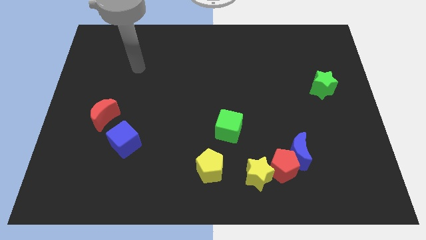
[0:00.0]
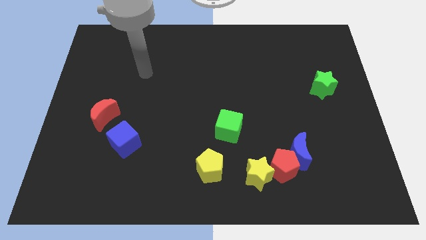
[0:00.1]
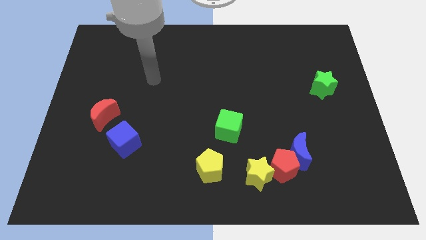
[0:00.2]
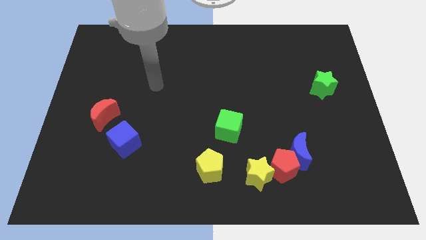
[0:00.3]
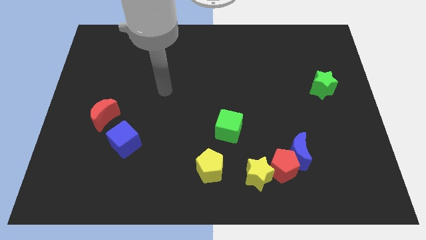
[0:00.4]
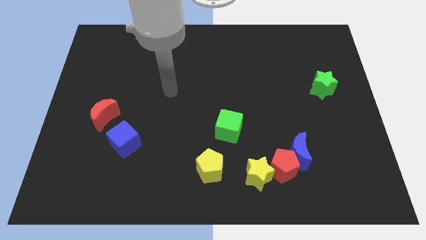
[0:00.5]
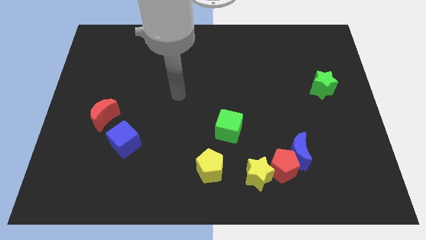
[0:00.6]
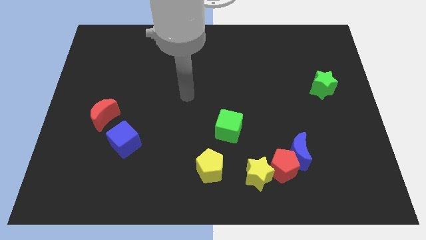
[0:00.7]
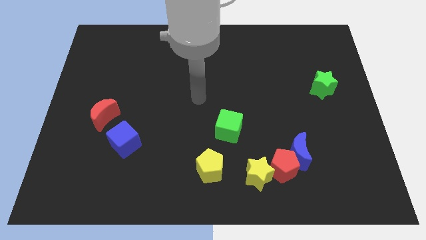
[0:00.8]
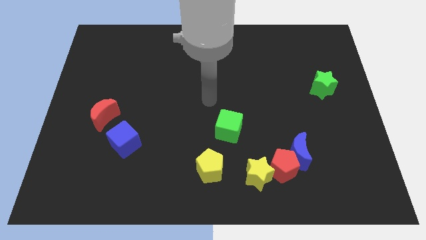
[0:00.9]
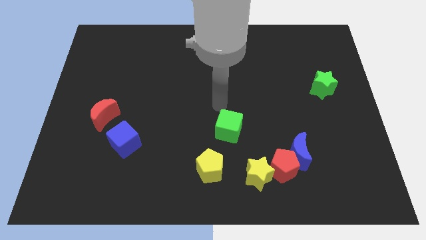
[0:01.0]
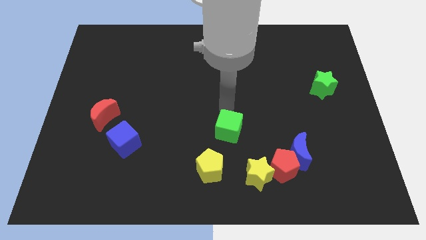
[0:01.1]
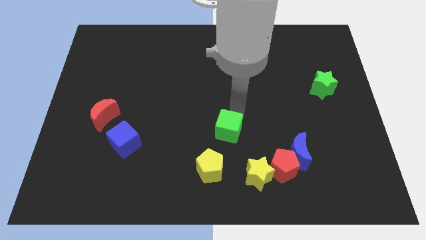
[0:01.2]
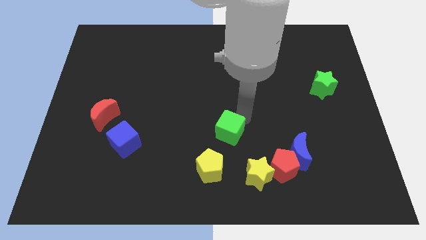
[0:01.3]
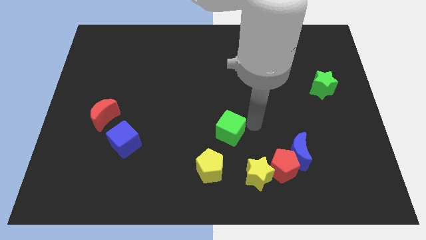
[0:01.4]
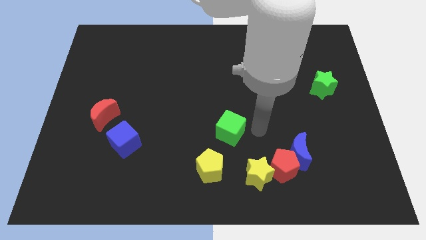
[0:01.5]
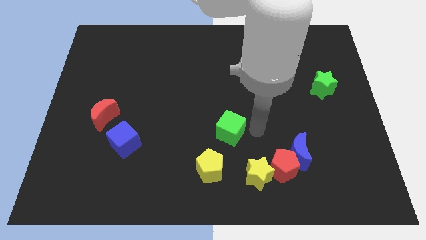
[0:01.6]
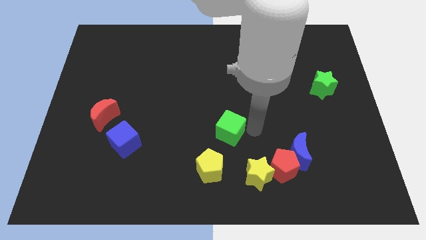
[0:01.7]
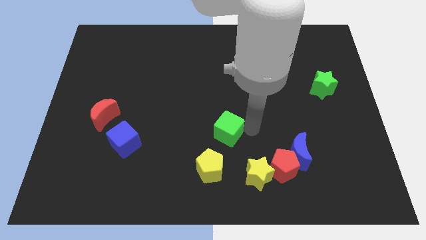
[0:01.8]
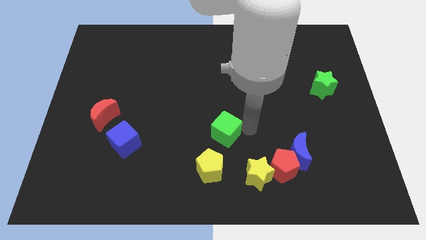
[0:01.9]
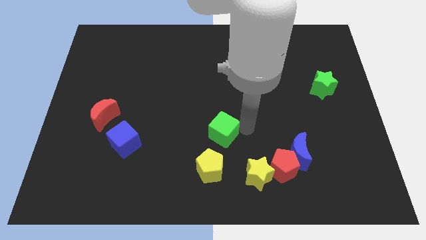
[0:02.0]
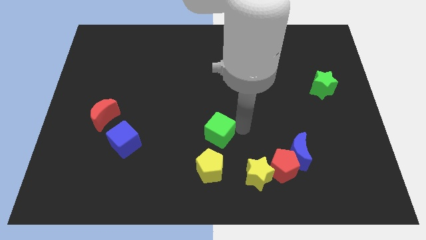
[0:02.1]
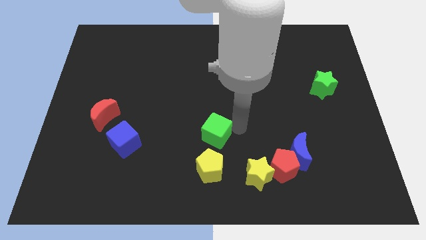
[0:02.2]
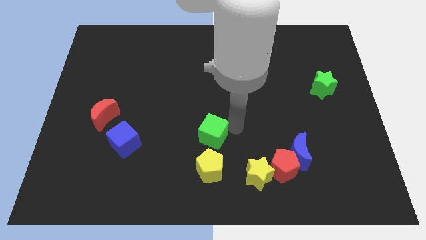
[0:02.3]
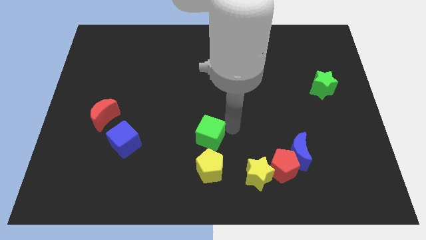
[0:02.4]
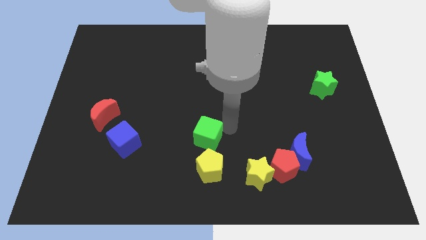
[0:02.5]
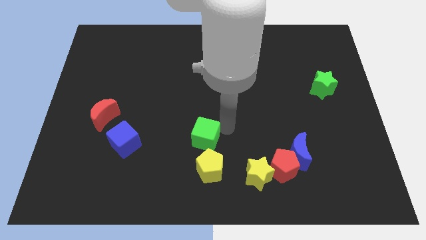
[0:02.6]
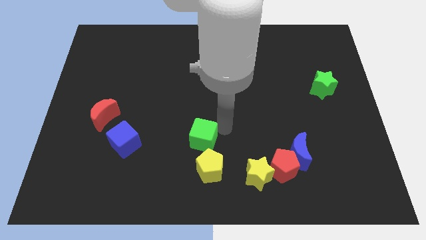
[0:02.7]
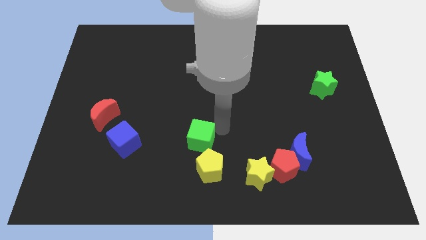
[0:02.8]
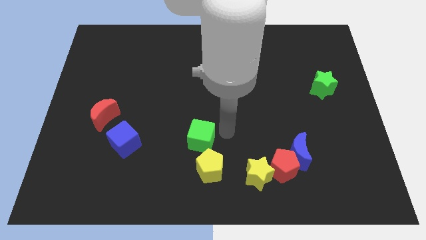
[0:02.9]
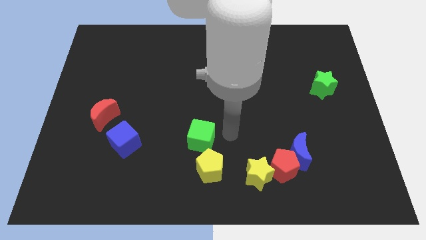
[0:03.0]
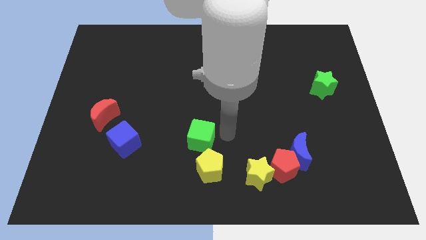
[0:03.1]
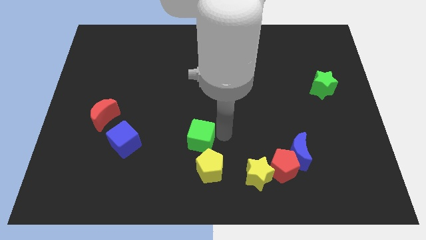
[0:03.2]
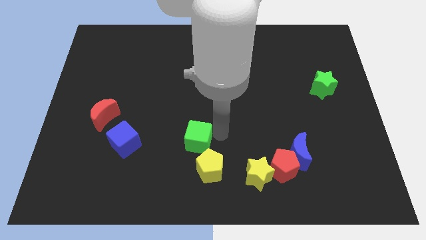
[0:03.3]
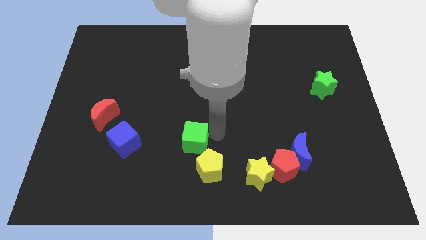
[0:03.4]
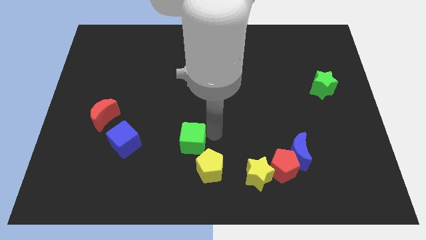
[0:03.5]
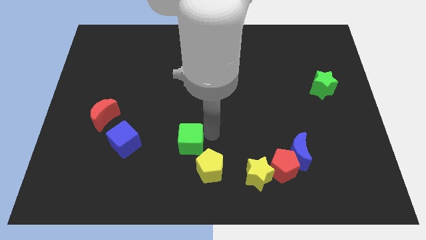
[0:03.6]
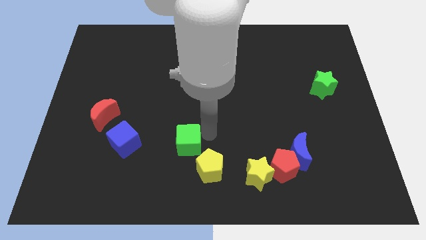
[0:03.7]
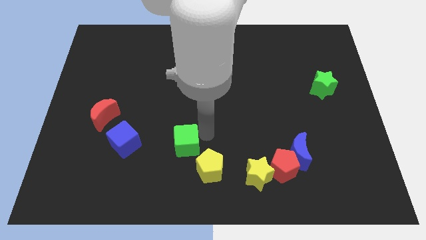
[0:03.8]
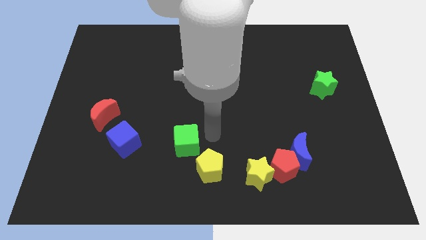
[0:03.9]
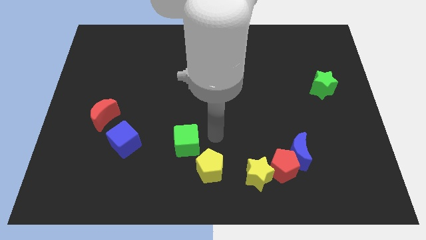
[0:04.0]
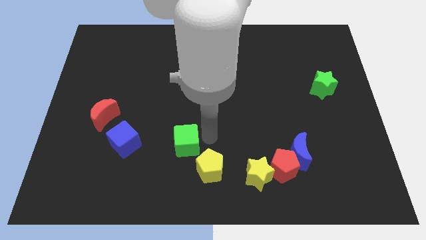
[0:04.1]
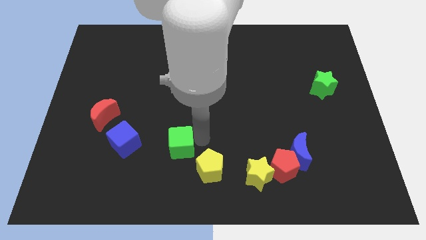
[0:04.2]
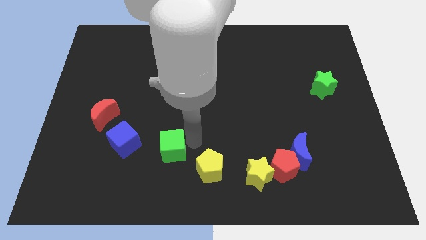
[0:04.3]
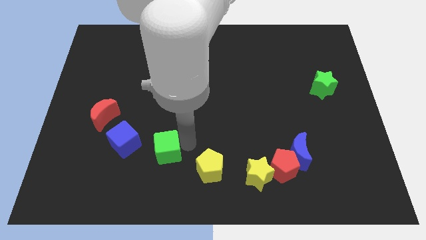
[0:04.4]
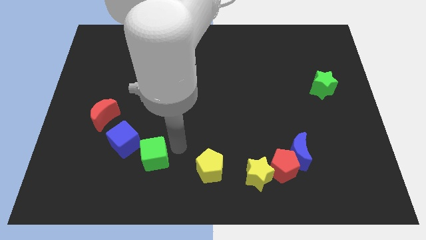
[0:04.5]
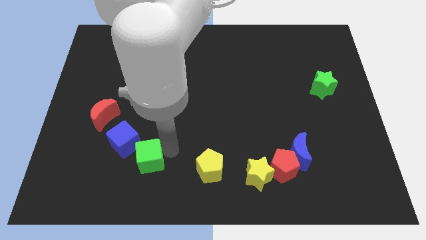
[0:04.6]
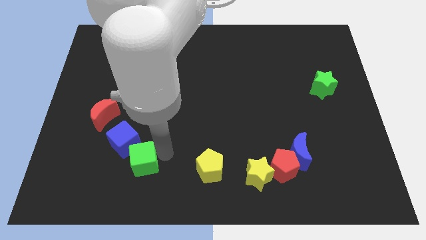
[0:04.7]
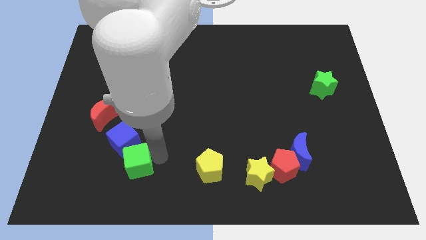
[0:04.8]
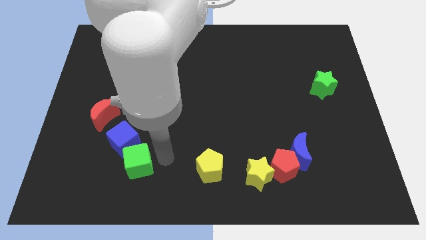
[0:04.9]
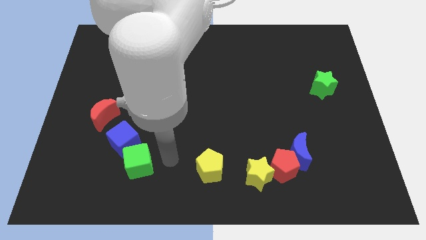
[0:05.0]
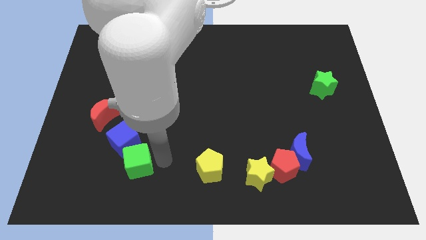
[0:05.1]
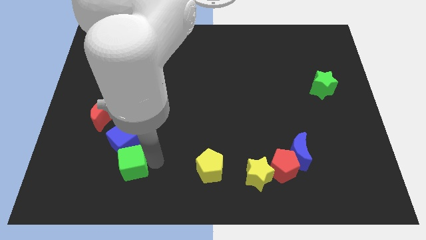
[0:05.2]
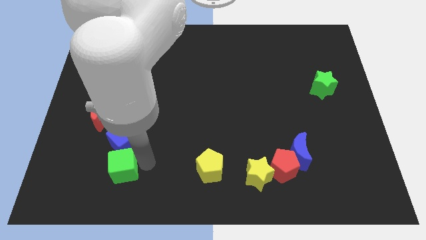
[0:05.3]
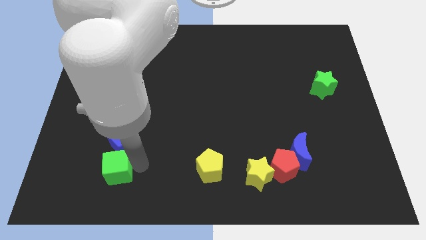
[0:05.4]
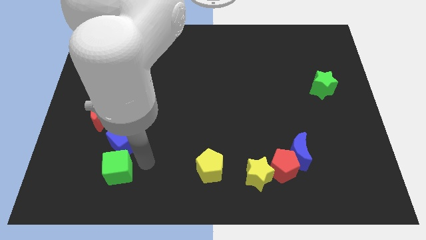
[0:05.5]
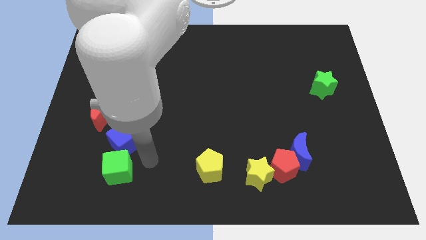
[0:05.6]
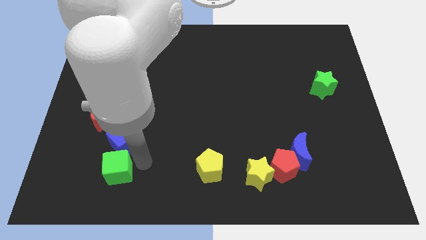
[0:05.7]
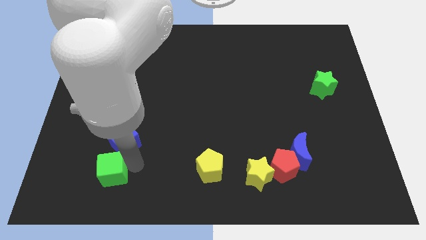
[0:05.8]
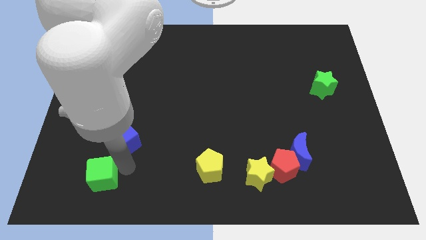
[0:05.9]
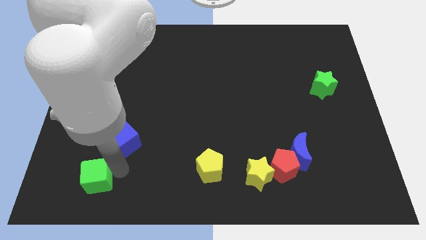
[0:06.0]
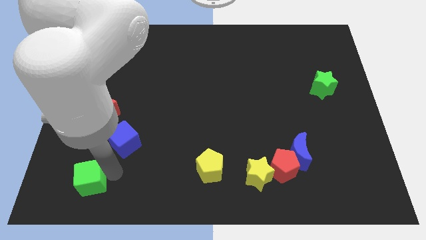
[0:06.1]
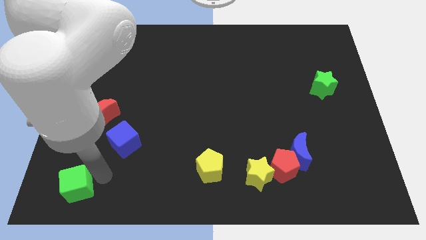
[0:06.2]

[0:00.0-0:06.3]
move the green cube to the bottom left of the board

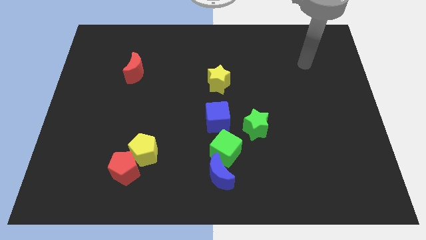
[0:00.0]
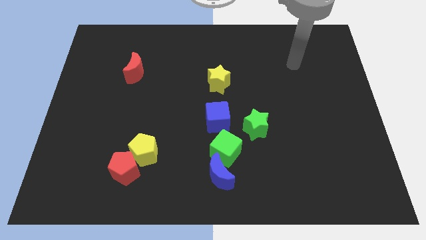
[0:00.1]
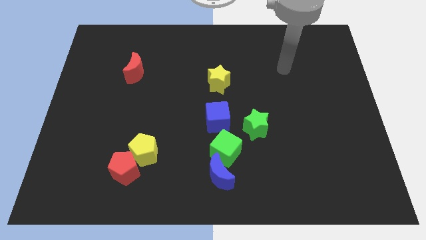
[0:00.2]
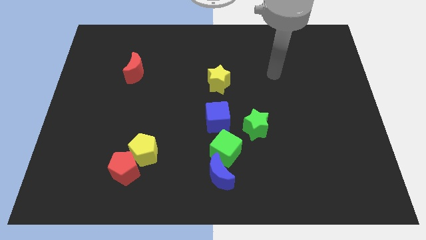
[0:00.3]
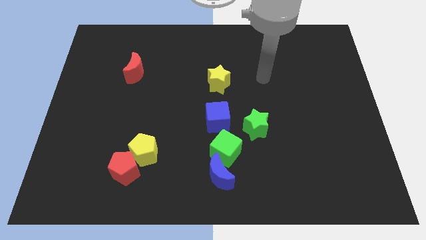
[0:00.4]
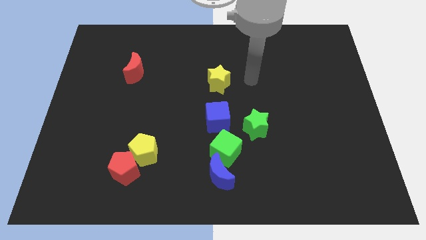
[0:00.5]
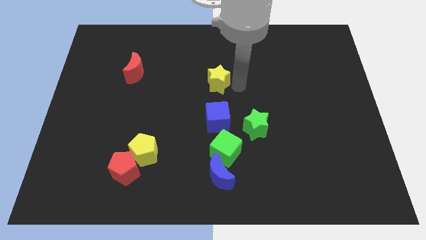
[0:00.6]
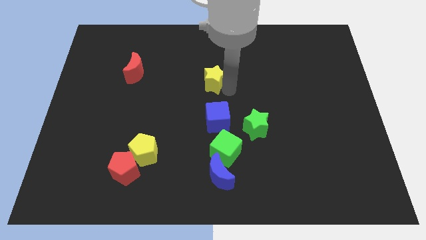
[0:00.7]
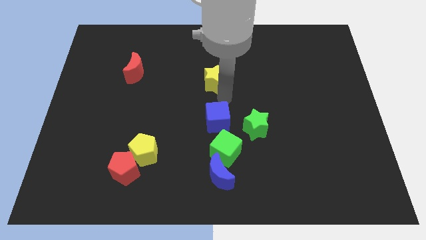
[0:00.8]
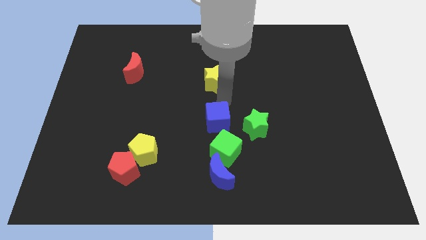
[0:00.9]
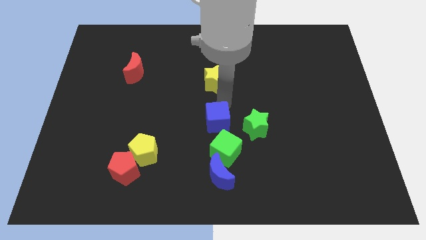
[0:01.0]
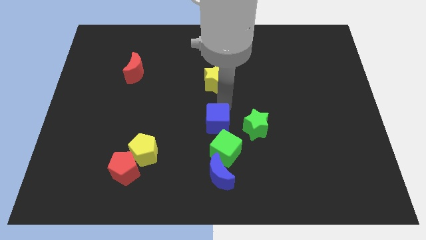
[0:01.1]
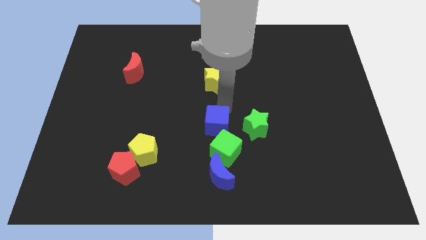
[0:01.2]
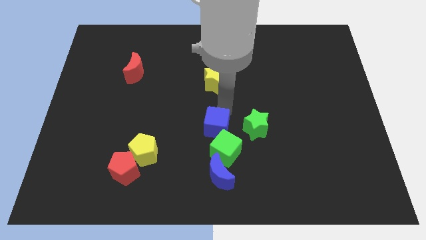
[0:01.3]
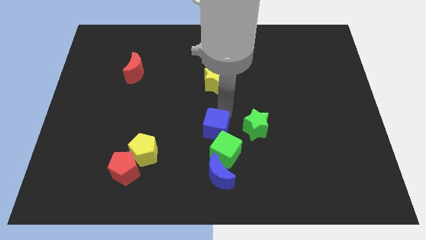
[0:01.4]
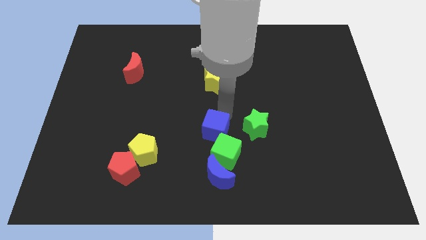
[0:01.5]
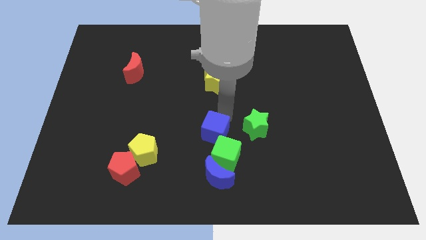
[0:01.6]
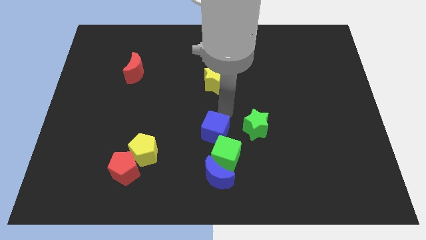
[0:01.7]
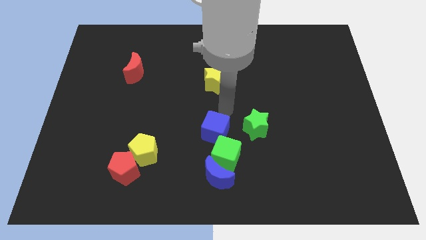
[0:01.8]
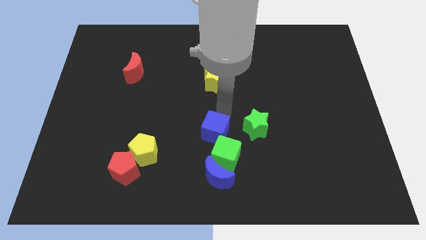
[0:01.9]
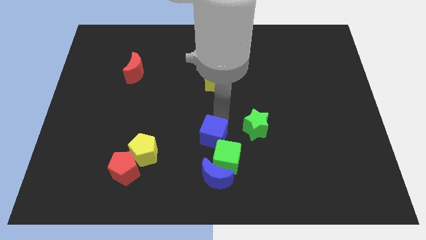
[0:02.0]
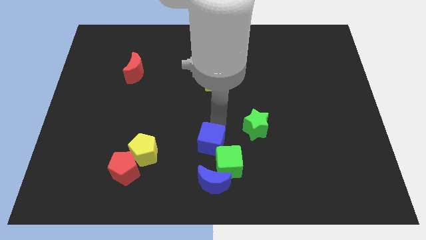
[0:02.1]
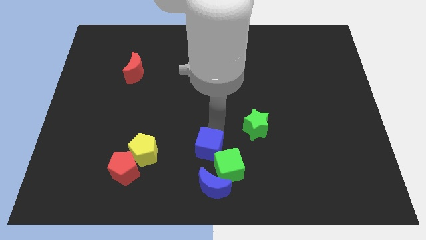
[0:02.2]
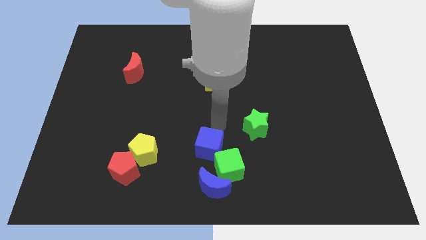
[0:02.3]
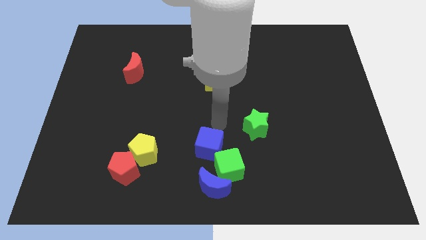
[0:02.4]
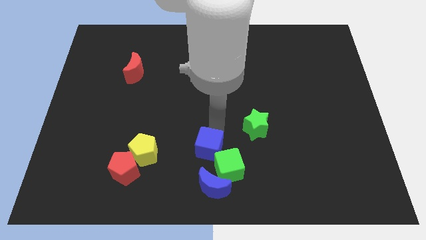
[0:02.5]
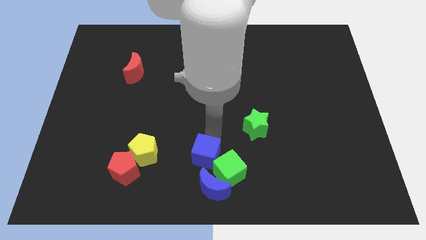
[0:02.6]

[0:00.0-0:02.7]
slide the blue cube to the bottom side
